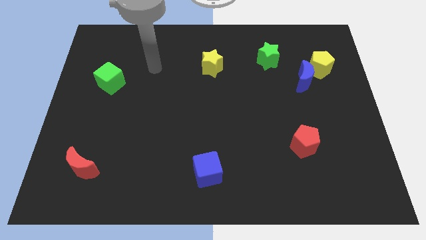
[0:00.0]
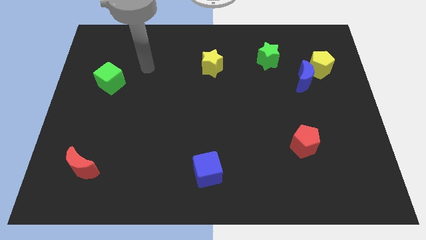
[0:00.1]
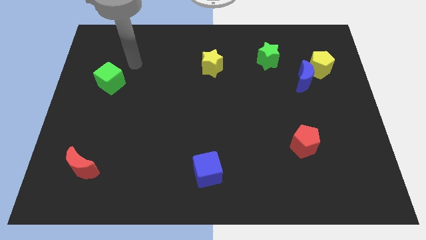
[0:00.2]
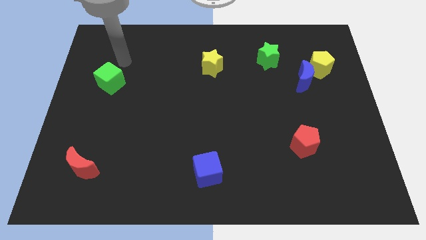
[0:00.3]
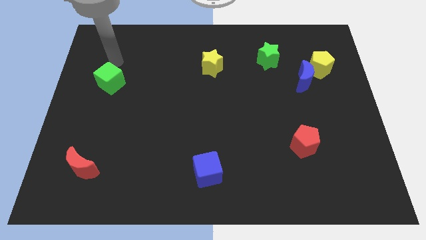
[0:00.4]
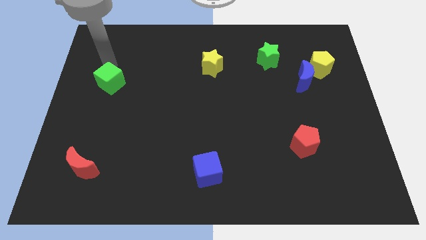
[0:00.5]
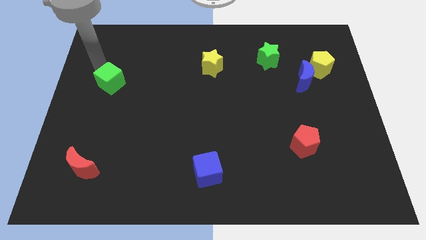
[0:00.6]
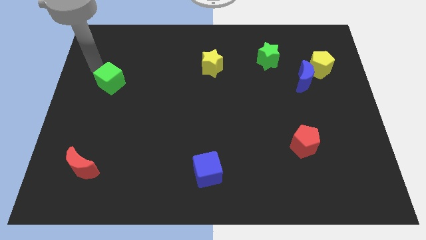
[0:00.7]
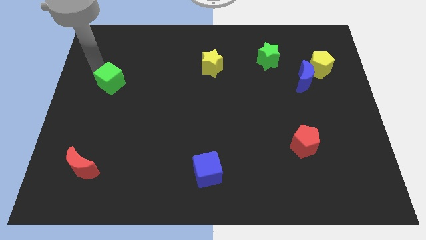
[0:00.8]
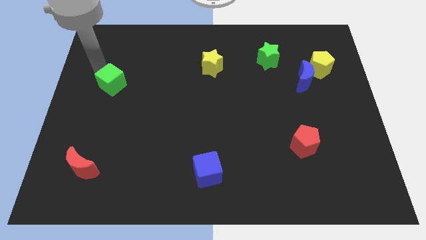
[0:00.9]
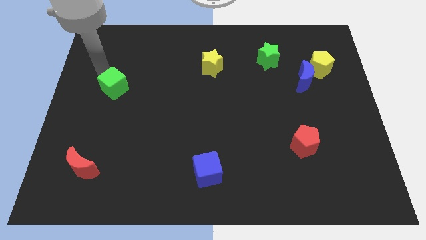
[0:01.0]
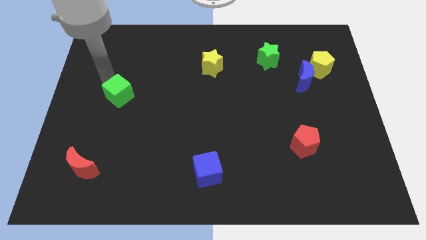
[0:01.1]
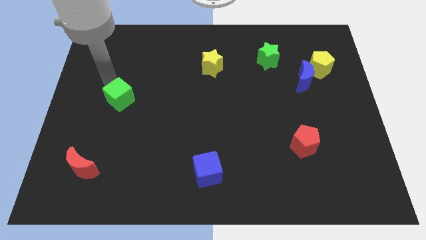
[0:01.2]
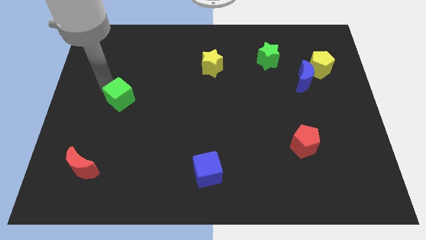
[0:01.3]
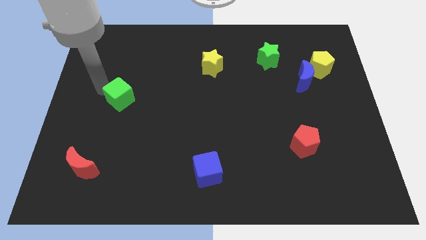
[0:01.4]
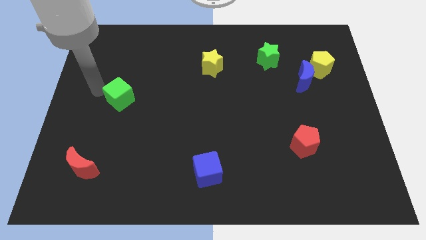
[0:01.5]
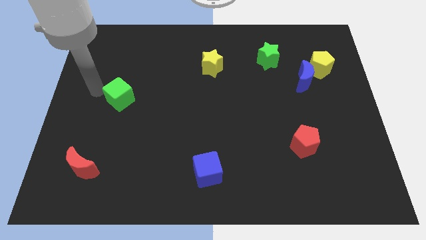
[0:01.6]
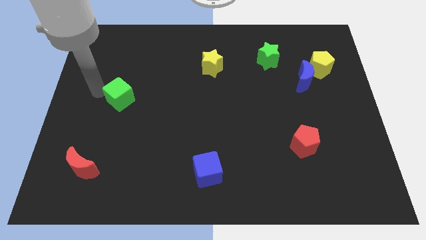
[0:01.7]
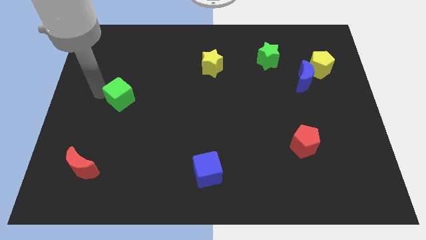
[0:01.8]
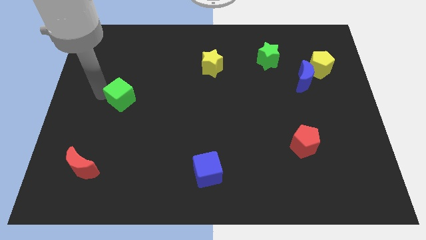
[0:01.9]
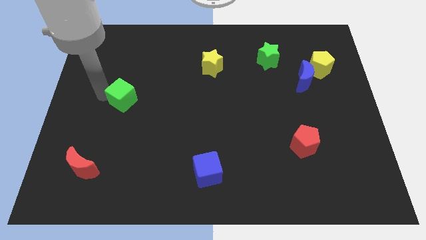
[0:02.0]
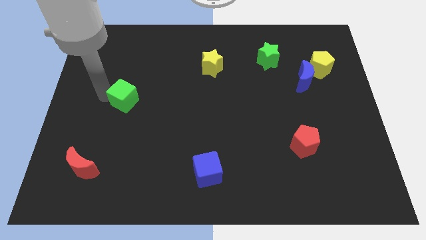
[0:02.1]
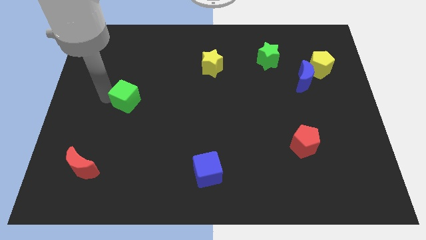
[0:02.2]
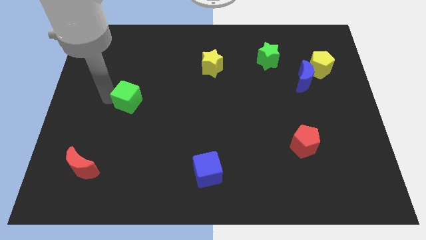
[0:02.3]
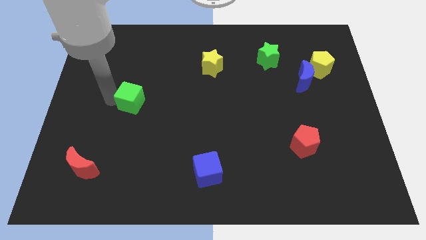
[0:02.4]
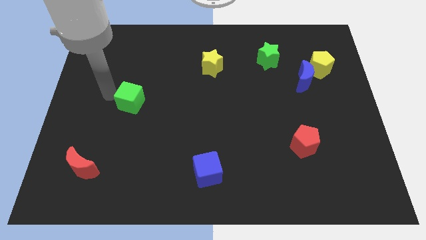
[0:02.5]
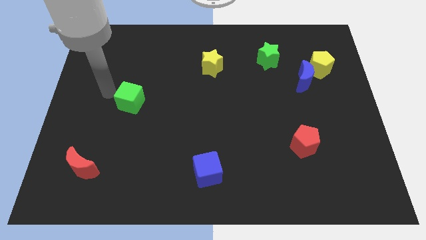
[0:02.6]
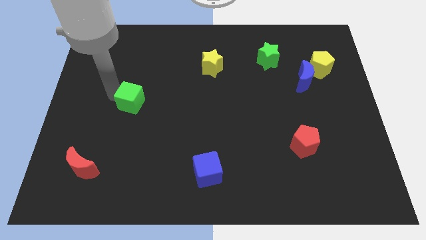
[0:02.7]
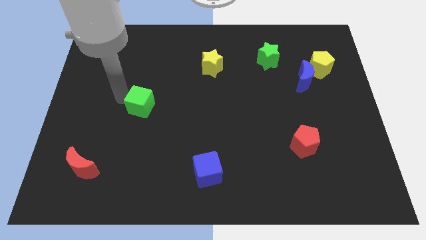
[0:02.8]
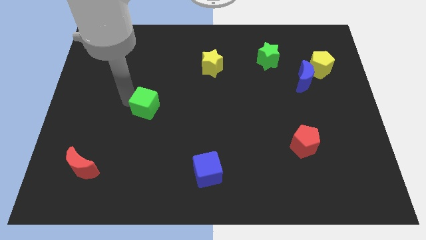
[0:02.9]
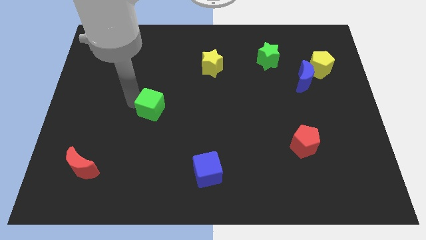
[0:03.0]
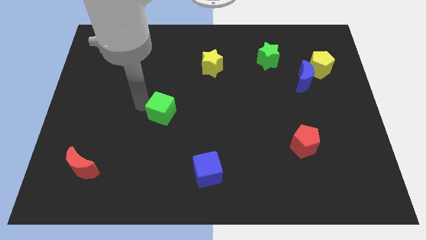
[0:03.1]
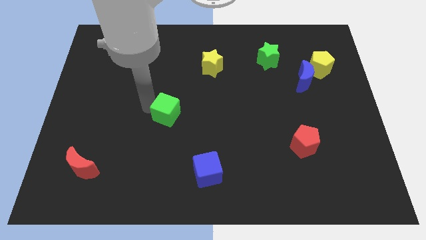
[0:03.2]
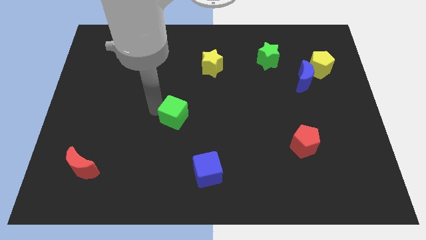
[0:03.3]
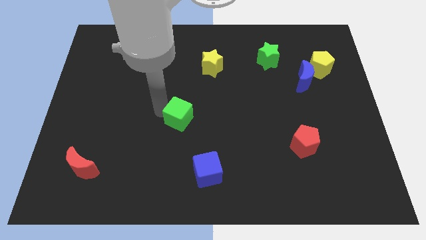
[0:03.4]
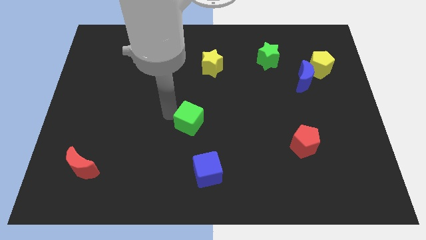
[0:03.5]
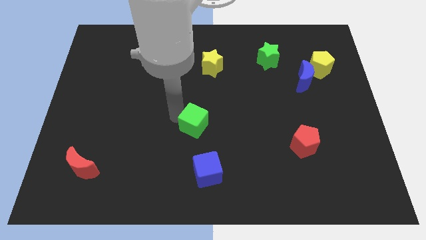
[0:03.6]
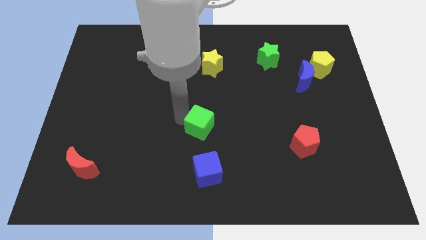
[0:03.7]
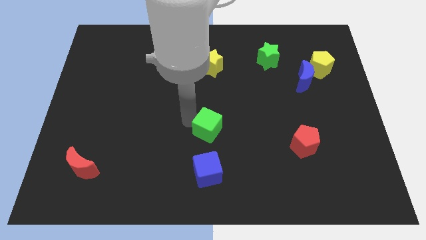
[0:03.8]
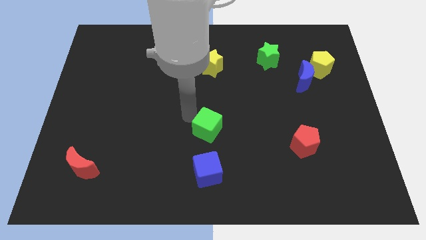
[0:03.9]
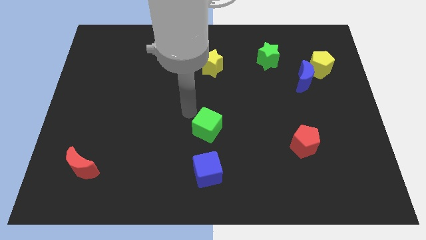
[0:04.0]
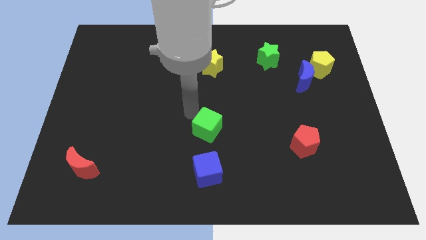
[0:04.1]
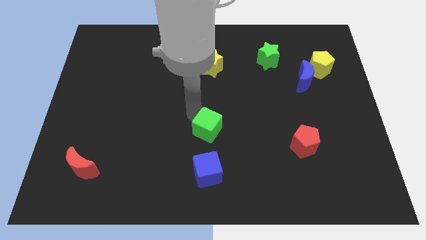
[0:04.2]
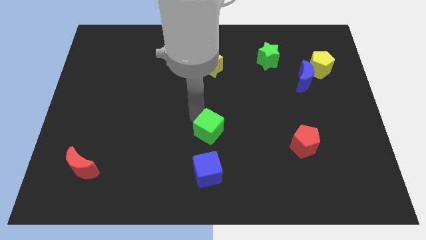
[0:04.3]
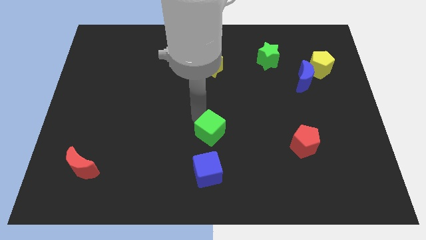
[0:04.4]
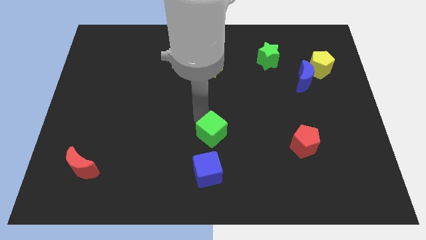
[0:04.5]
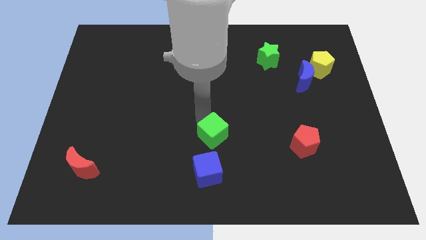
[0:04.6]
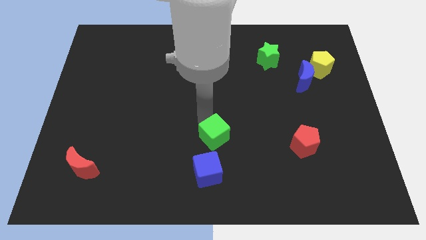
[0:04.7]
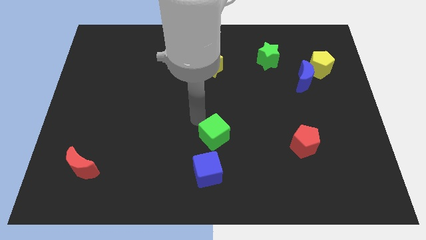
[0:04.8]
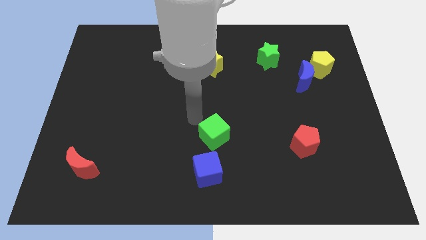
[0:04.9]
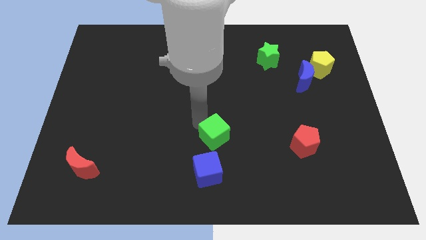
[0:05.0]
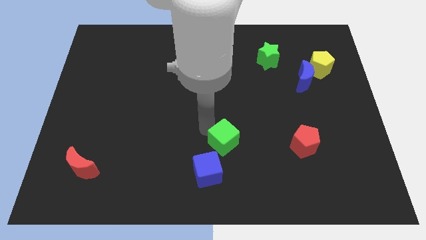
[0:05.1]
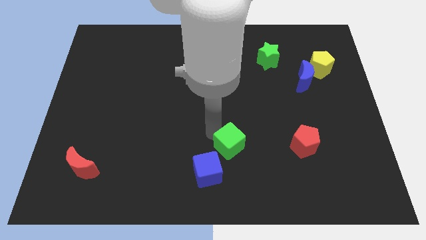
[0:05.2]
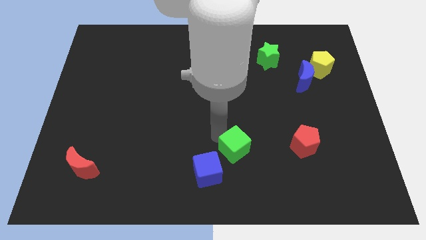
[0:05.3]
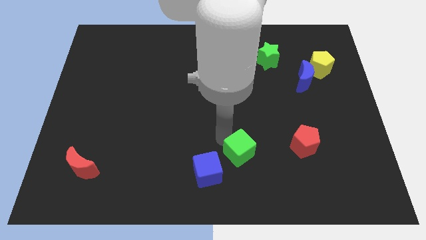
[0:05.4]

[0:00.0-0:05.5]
push the green cube to the right side of the blue cube

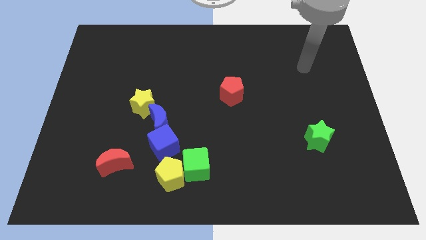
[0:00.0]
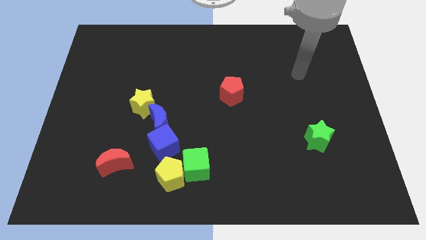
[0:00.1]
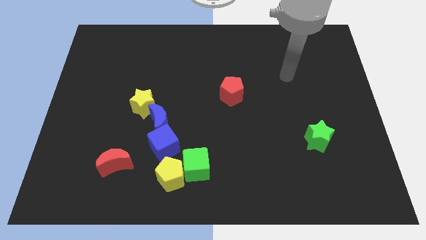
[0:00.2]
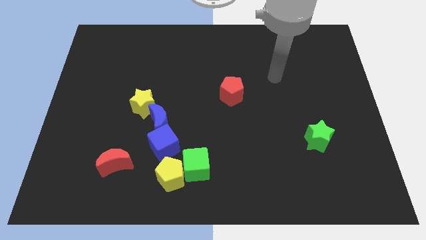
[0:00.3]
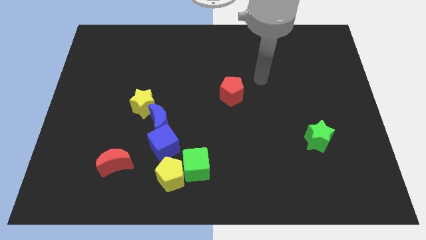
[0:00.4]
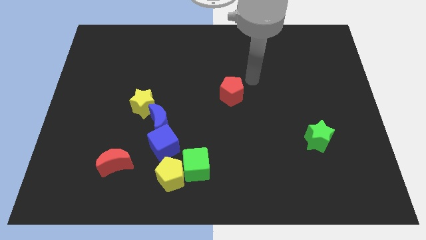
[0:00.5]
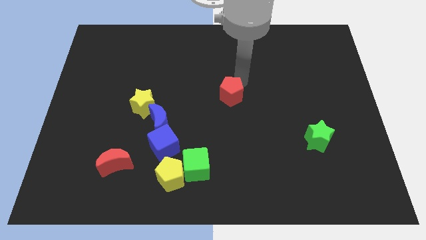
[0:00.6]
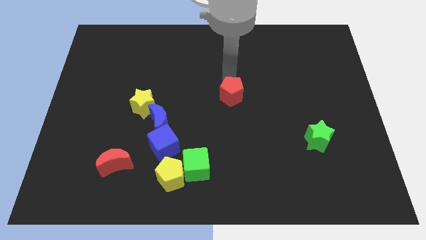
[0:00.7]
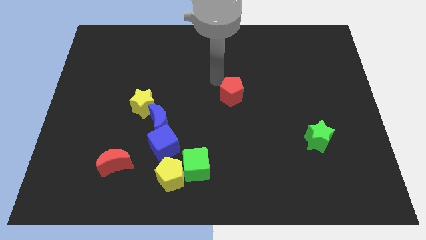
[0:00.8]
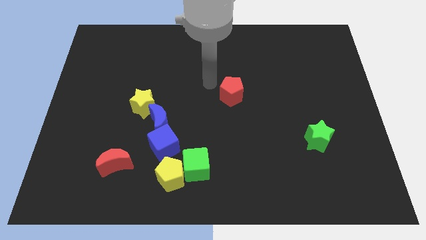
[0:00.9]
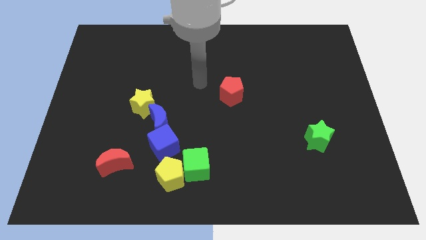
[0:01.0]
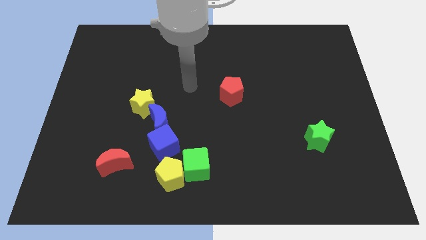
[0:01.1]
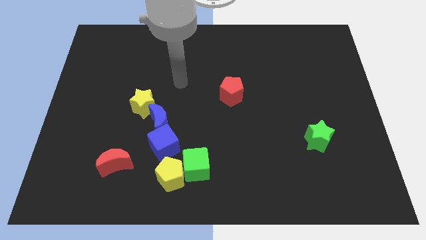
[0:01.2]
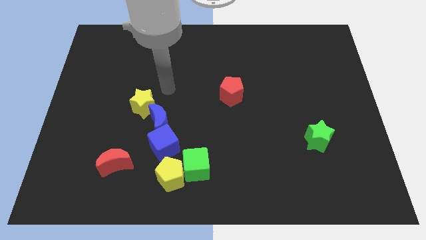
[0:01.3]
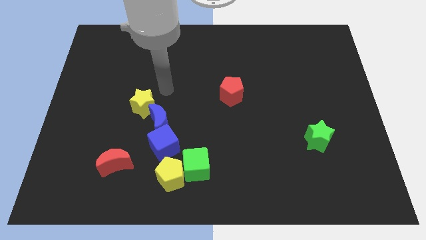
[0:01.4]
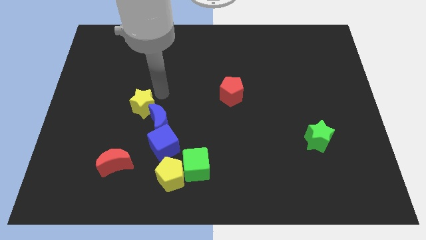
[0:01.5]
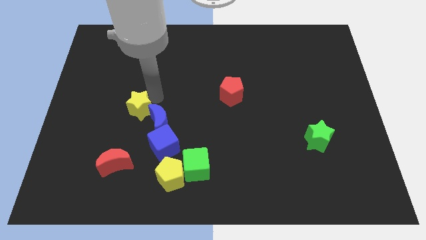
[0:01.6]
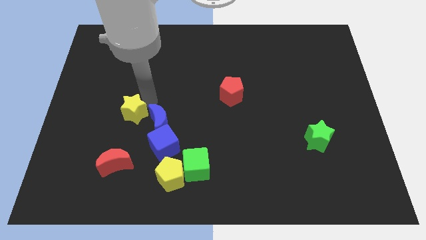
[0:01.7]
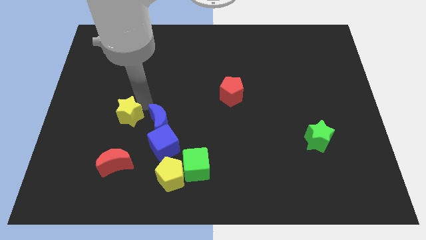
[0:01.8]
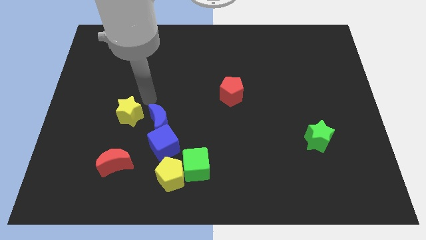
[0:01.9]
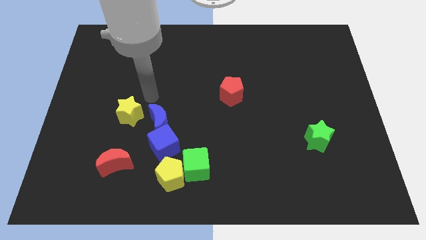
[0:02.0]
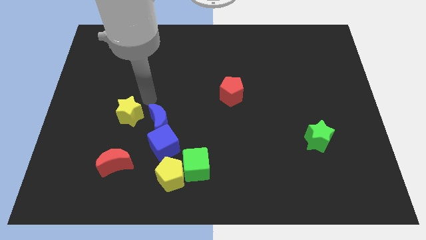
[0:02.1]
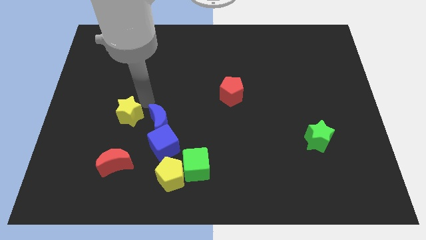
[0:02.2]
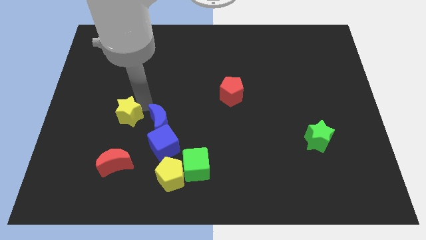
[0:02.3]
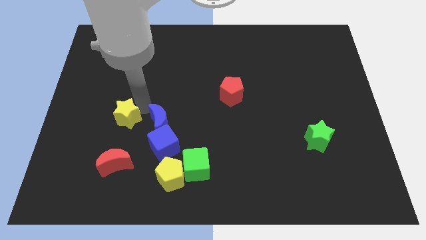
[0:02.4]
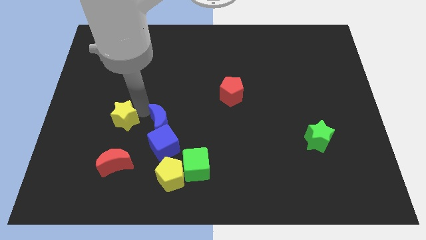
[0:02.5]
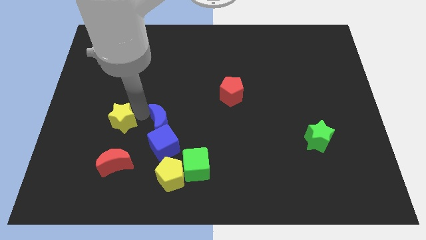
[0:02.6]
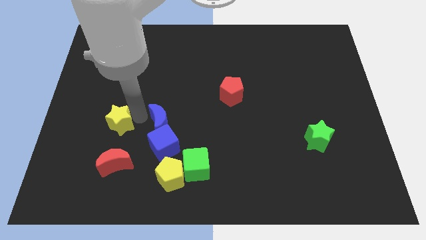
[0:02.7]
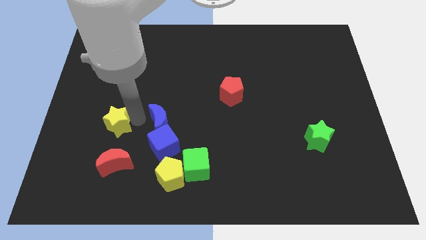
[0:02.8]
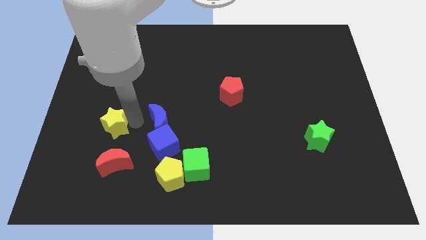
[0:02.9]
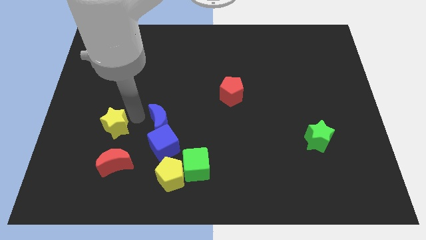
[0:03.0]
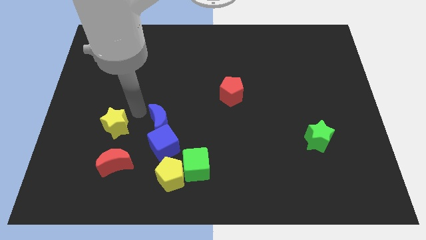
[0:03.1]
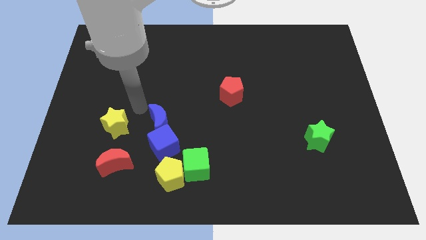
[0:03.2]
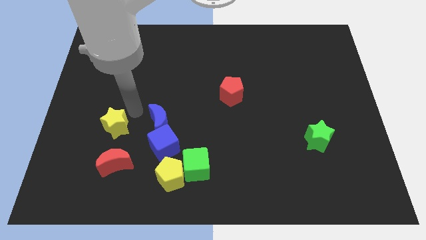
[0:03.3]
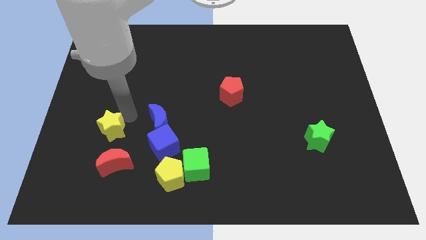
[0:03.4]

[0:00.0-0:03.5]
slide the yellow star diagonally up and to the left of the red moon
